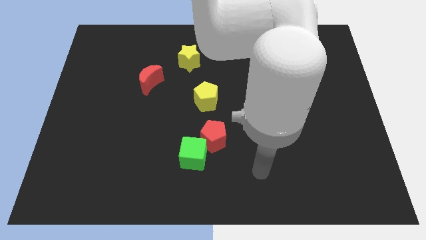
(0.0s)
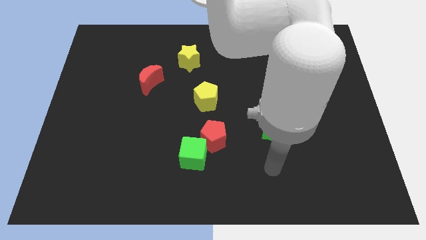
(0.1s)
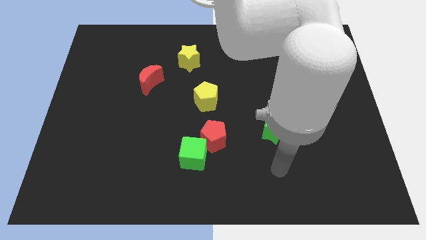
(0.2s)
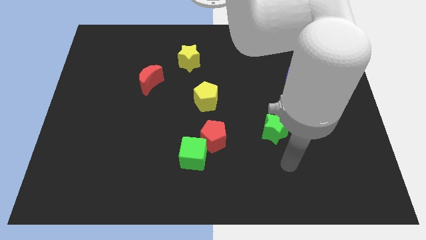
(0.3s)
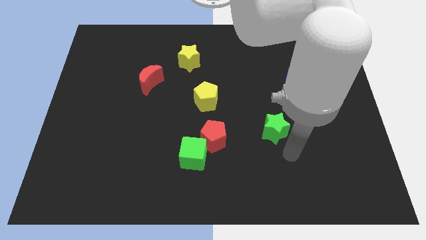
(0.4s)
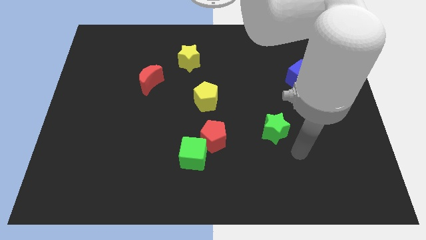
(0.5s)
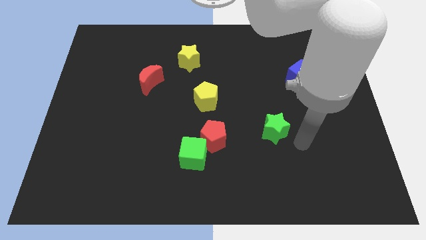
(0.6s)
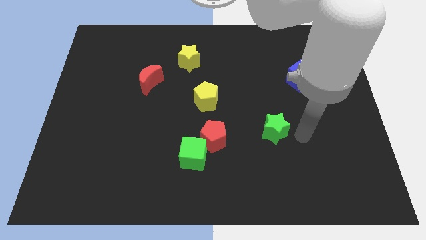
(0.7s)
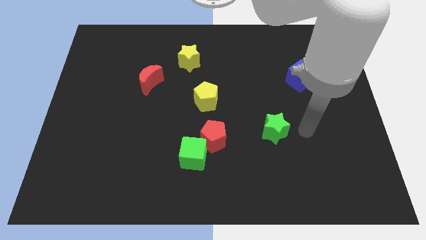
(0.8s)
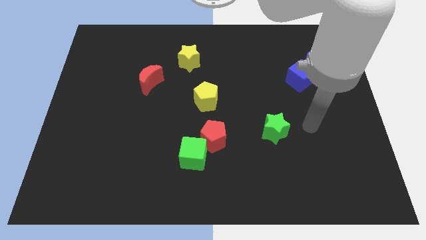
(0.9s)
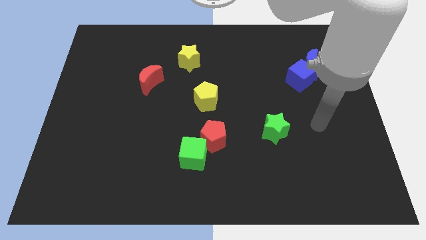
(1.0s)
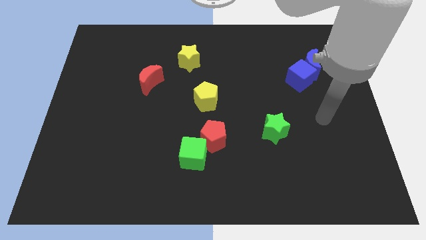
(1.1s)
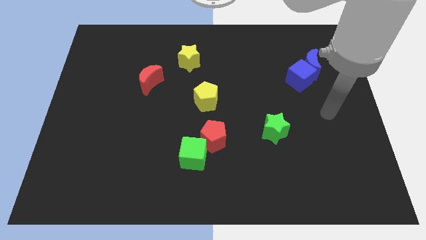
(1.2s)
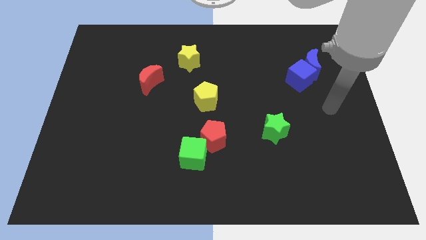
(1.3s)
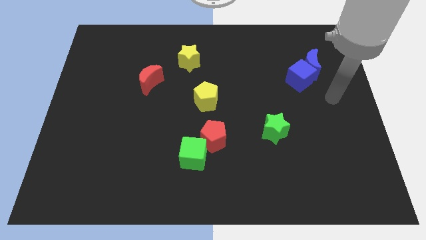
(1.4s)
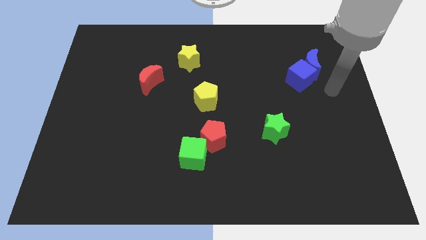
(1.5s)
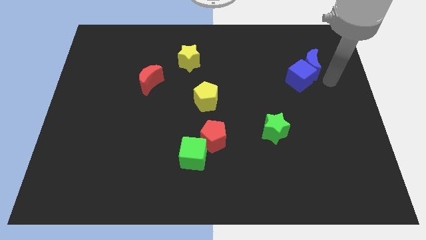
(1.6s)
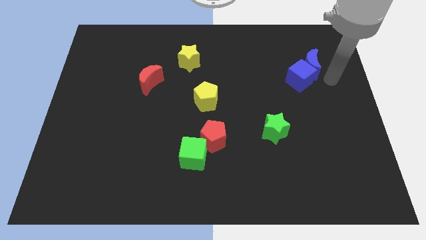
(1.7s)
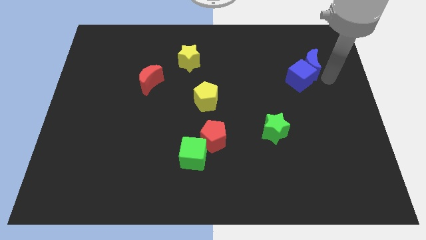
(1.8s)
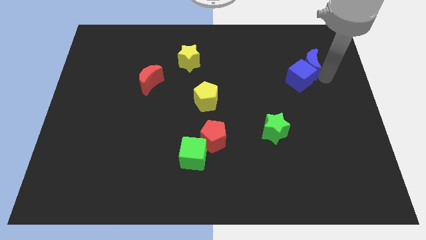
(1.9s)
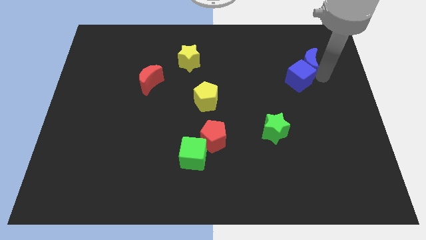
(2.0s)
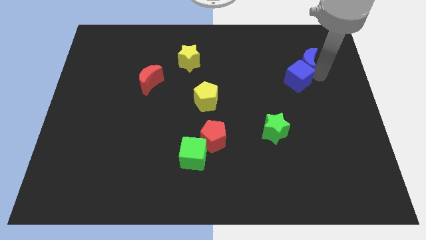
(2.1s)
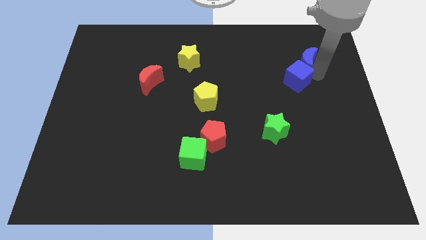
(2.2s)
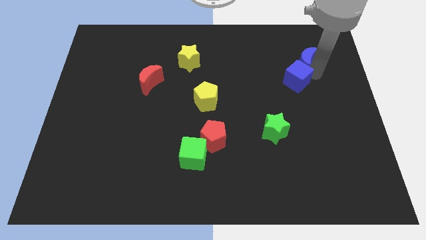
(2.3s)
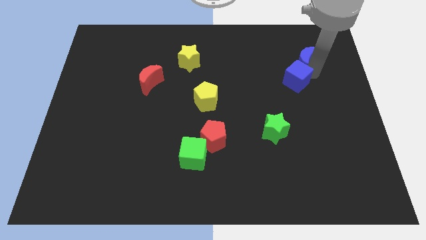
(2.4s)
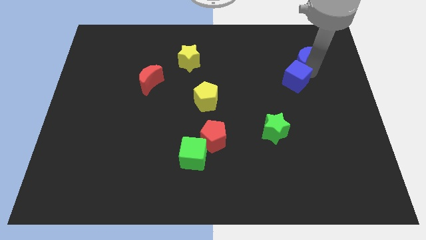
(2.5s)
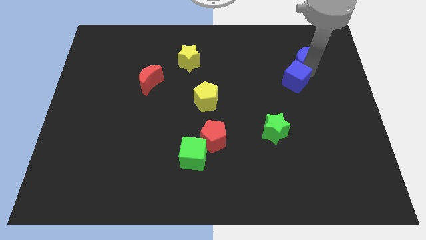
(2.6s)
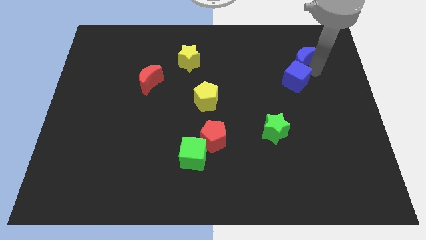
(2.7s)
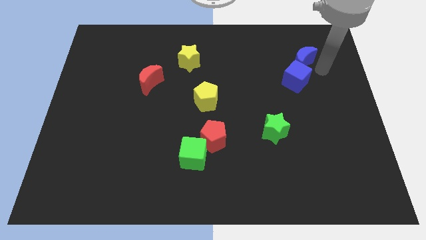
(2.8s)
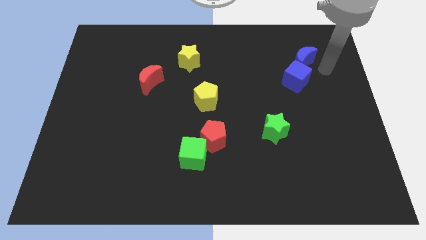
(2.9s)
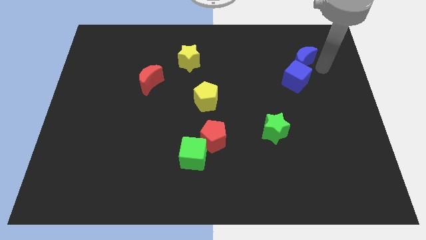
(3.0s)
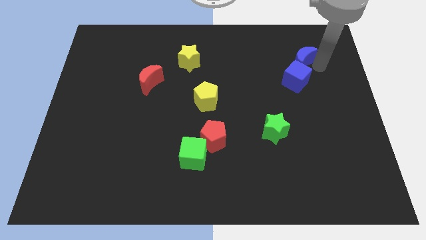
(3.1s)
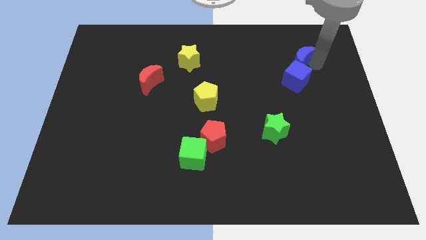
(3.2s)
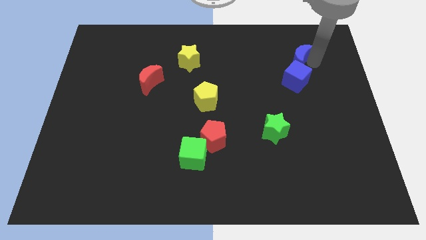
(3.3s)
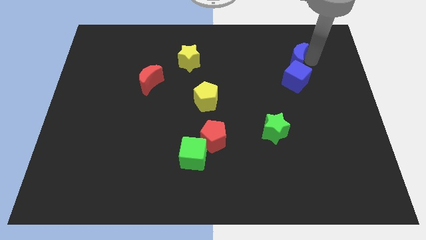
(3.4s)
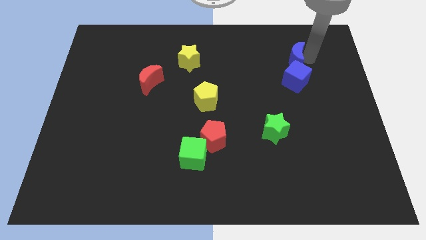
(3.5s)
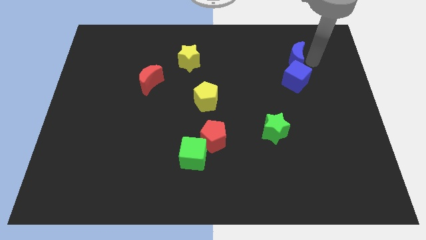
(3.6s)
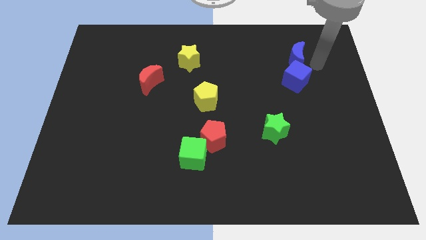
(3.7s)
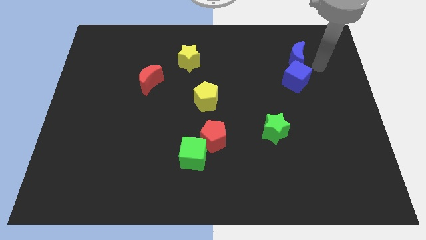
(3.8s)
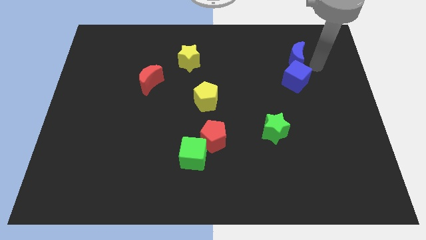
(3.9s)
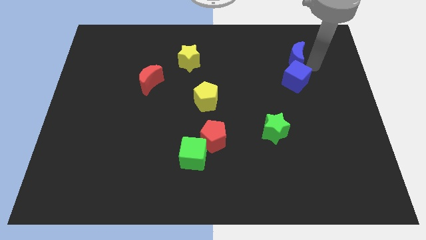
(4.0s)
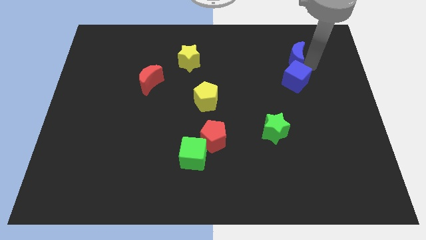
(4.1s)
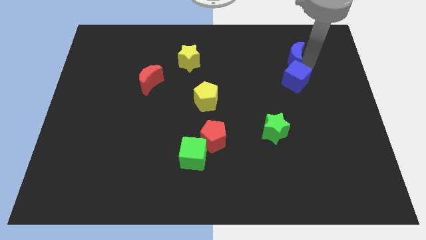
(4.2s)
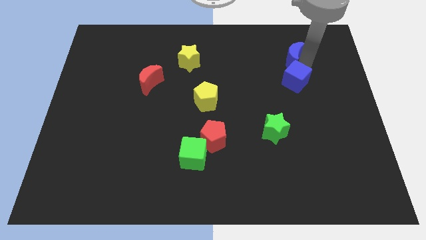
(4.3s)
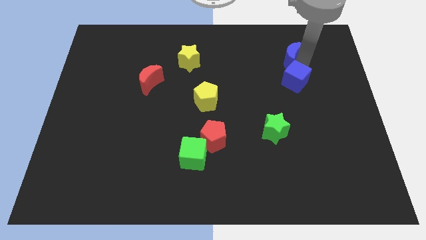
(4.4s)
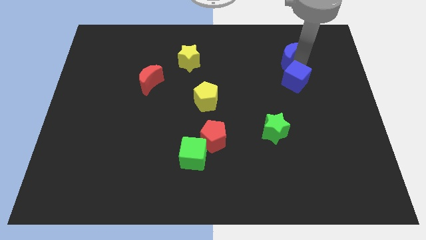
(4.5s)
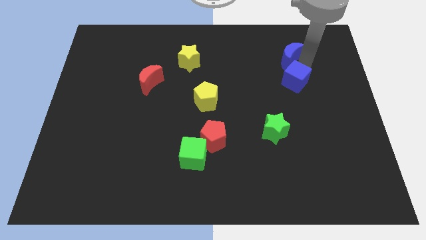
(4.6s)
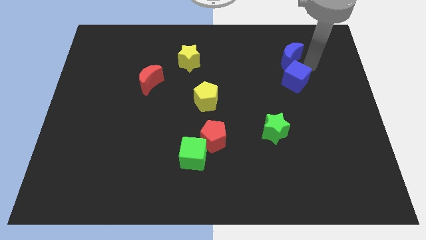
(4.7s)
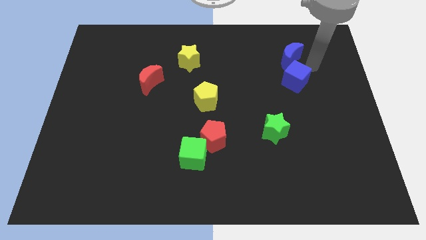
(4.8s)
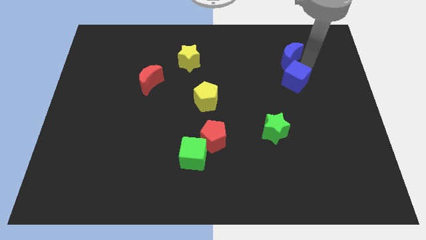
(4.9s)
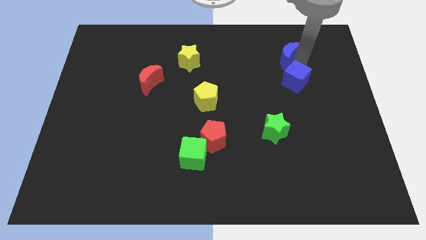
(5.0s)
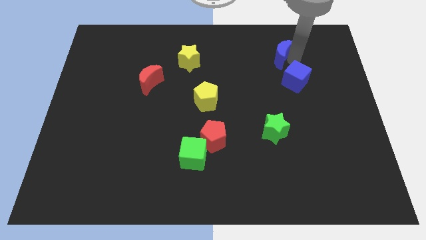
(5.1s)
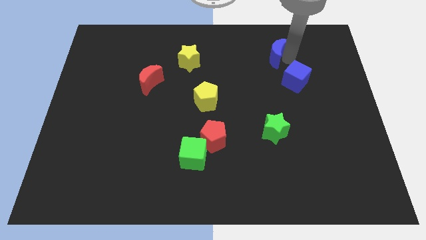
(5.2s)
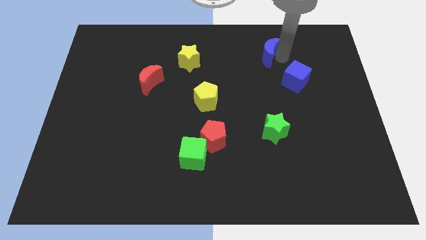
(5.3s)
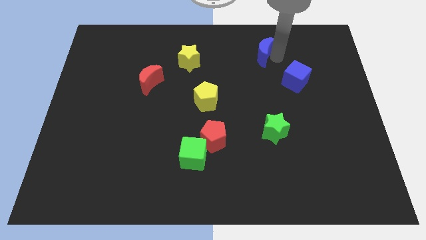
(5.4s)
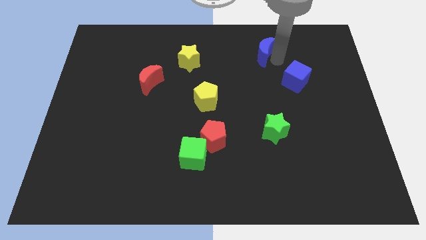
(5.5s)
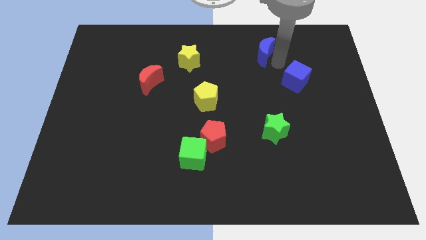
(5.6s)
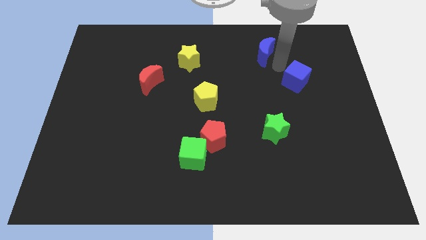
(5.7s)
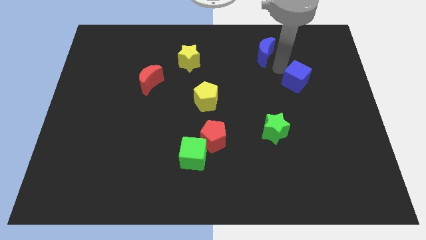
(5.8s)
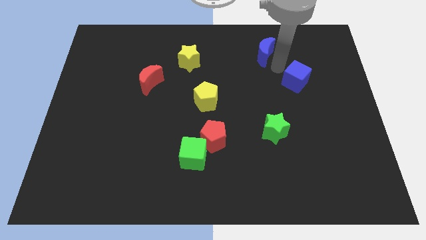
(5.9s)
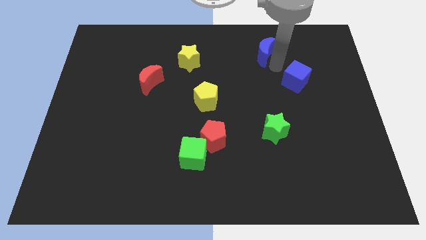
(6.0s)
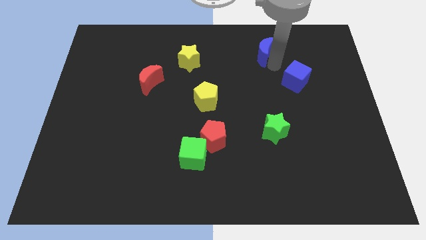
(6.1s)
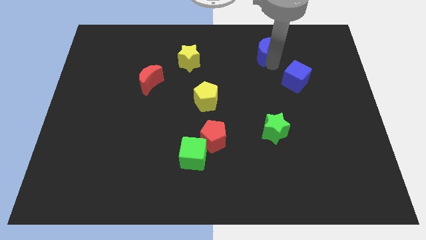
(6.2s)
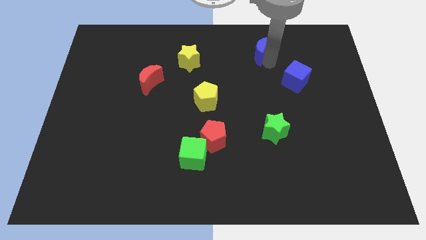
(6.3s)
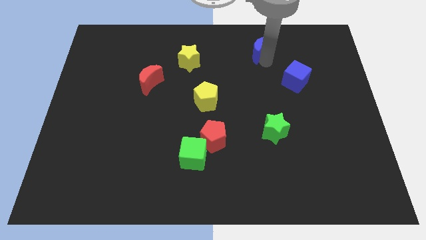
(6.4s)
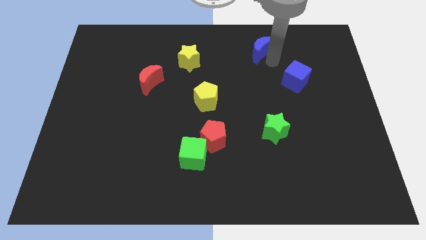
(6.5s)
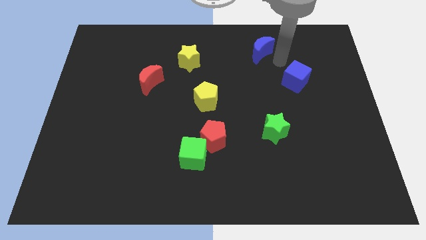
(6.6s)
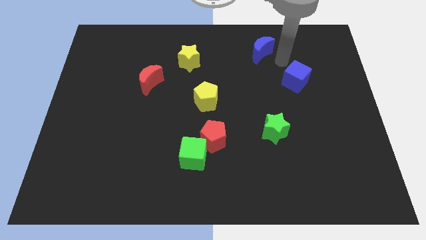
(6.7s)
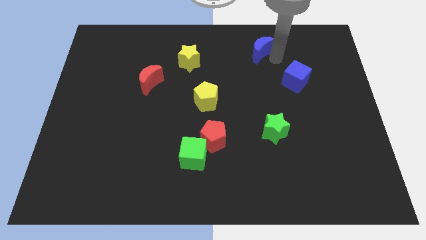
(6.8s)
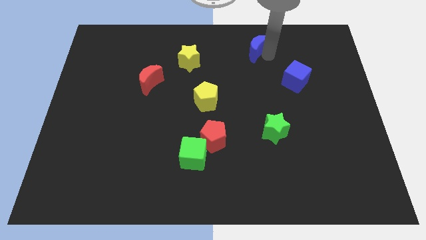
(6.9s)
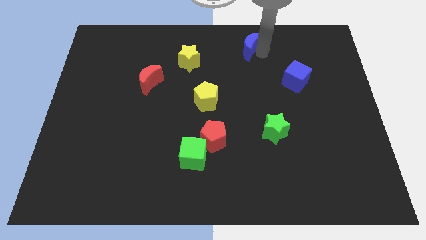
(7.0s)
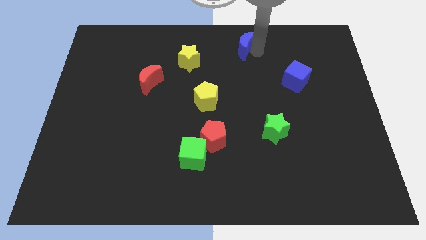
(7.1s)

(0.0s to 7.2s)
move the blue moon to the towards your base
